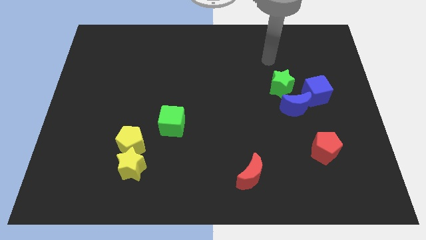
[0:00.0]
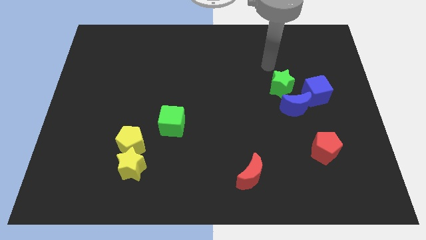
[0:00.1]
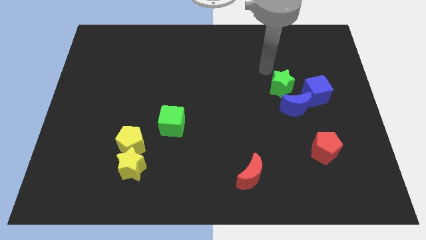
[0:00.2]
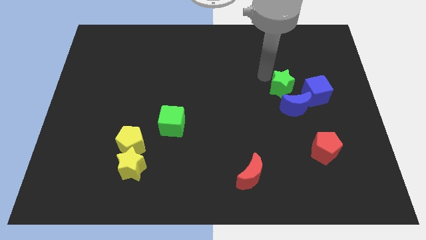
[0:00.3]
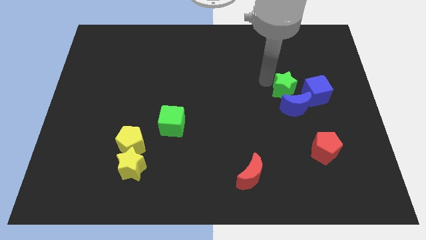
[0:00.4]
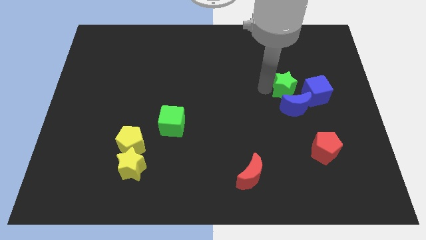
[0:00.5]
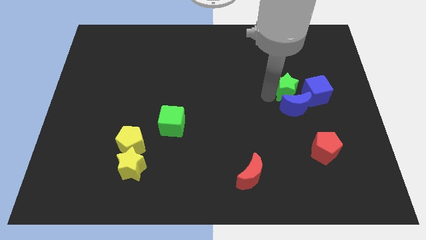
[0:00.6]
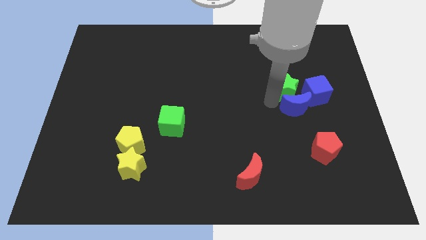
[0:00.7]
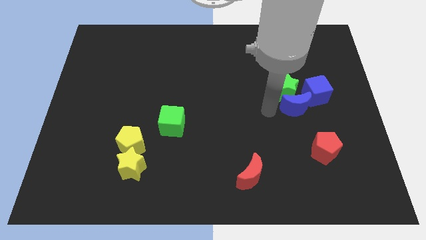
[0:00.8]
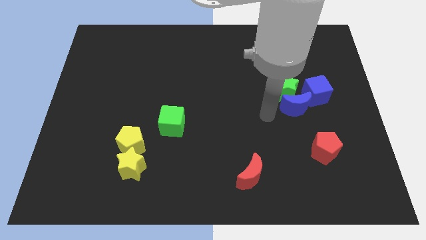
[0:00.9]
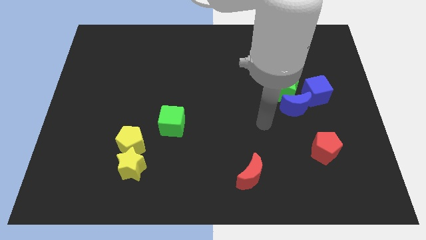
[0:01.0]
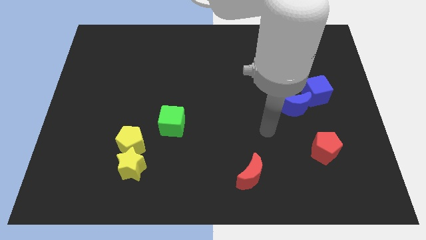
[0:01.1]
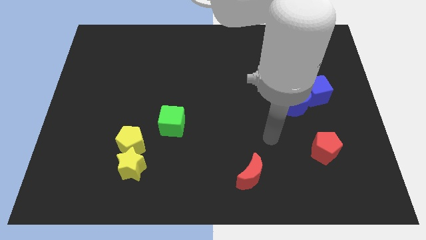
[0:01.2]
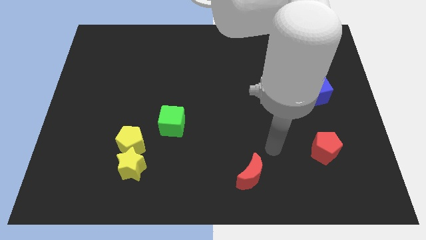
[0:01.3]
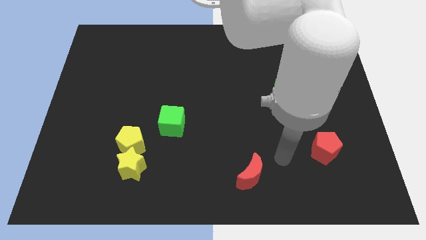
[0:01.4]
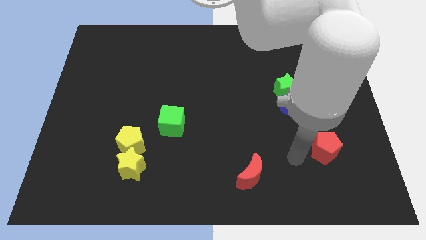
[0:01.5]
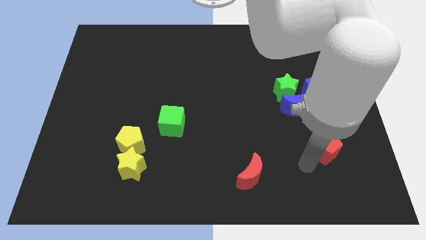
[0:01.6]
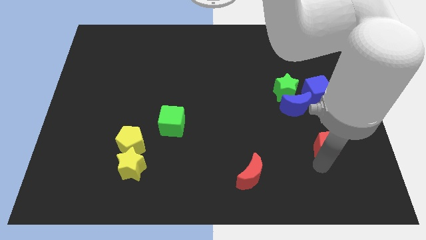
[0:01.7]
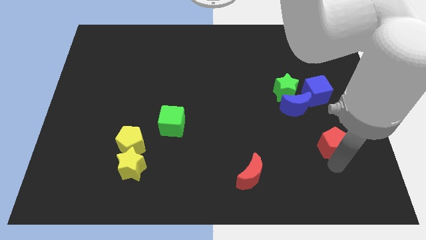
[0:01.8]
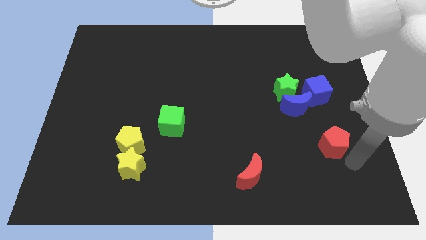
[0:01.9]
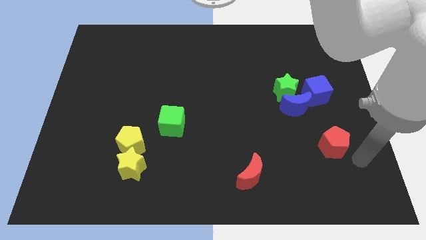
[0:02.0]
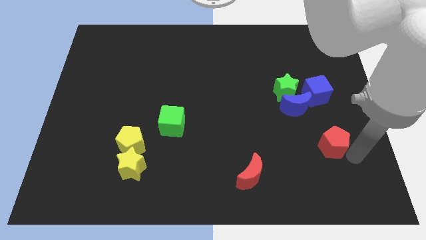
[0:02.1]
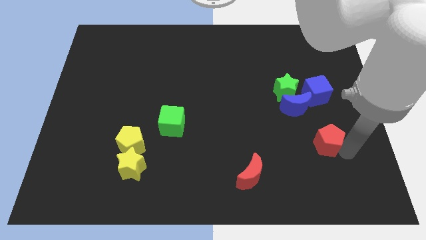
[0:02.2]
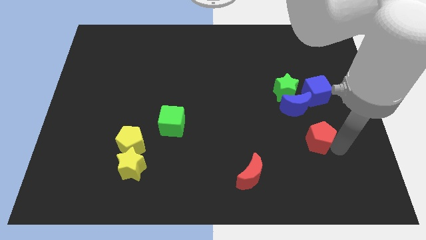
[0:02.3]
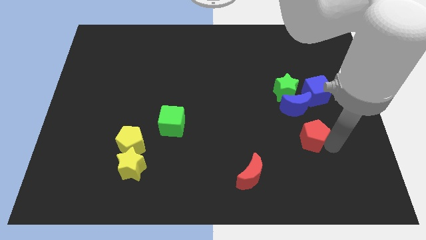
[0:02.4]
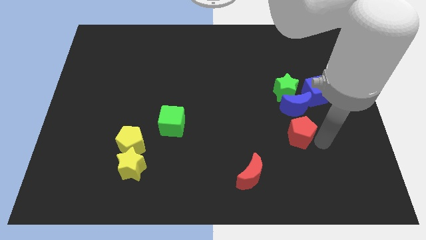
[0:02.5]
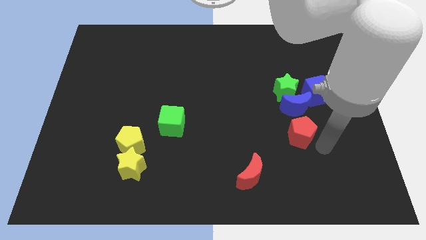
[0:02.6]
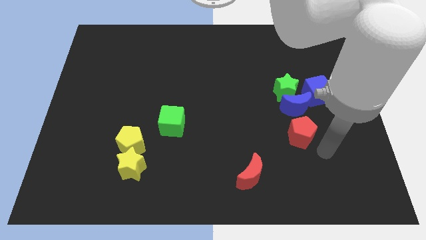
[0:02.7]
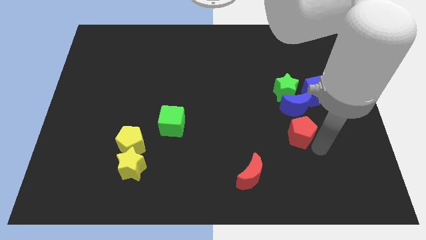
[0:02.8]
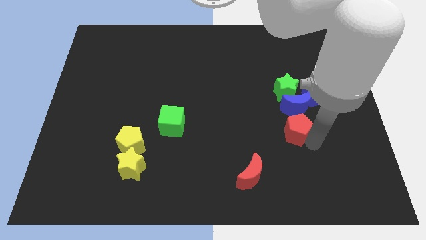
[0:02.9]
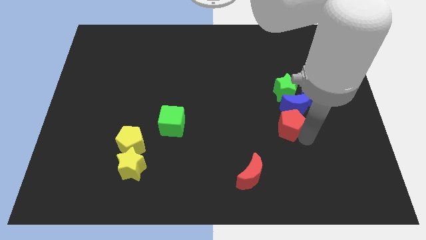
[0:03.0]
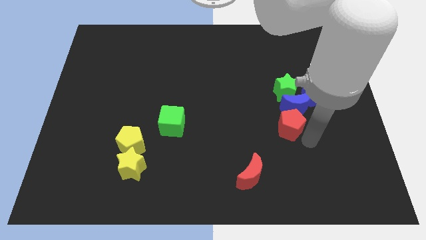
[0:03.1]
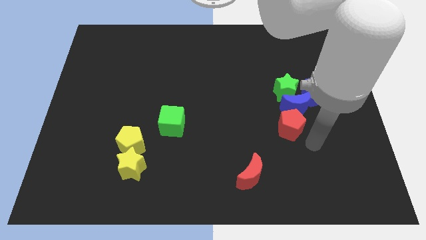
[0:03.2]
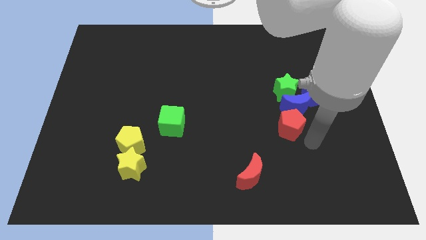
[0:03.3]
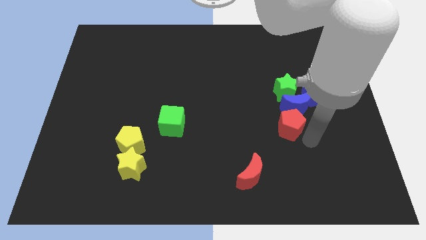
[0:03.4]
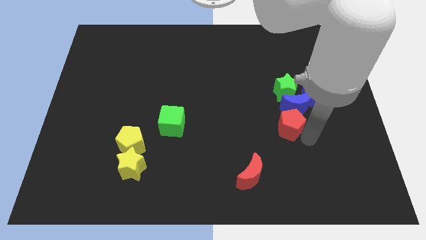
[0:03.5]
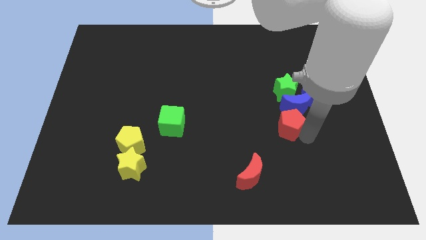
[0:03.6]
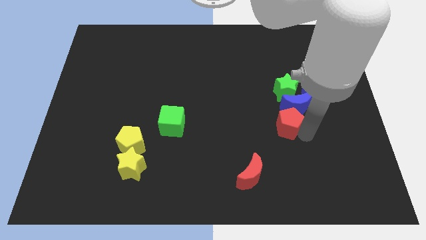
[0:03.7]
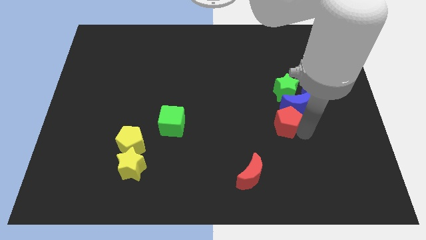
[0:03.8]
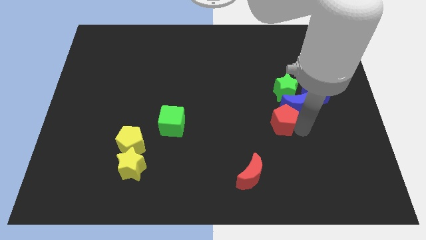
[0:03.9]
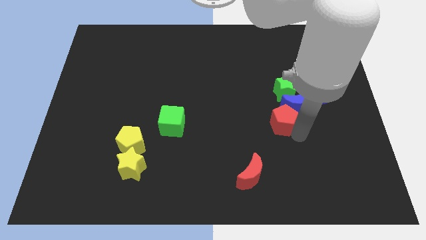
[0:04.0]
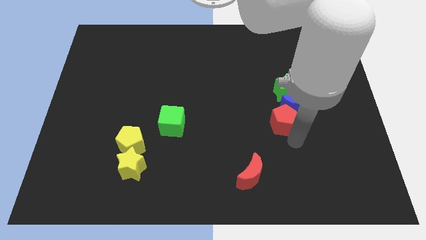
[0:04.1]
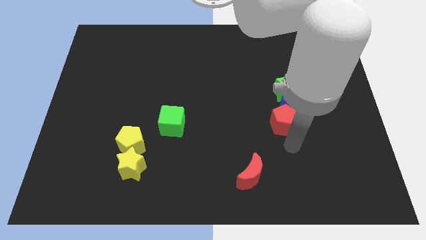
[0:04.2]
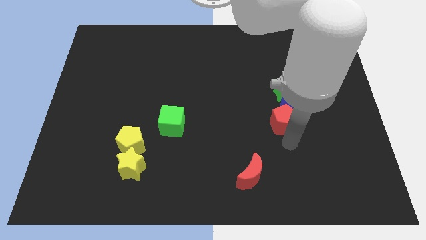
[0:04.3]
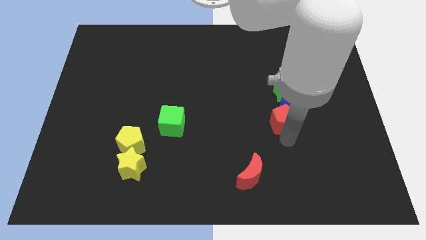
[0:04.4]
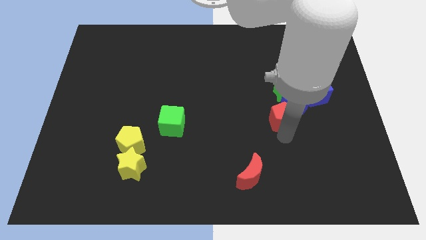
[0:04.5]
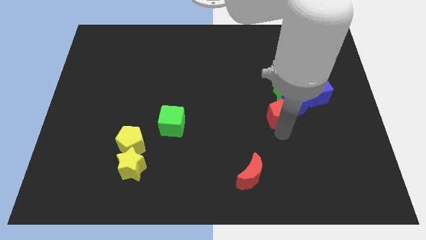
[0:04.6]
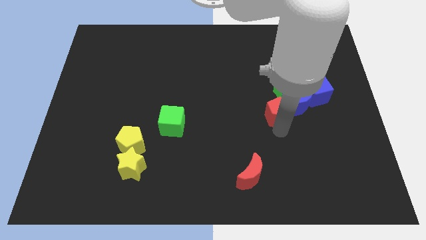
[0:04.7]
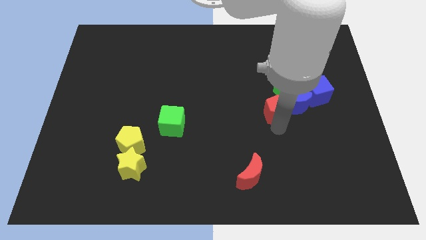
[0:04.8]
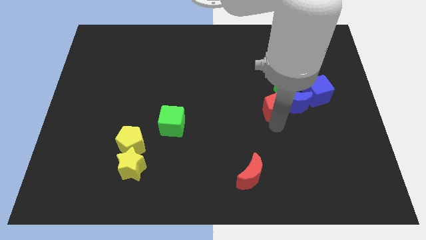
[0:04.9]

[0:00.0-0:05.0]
put the red pentagon to the left of the blue cube

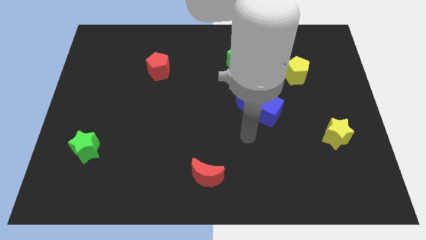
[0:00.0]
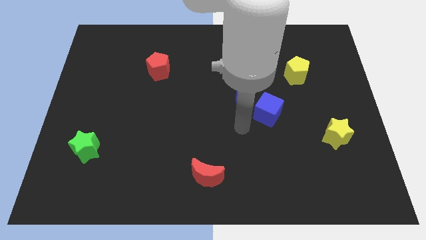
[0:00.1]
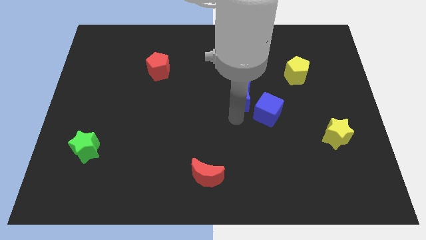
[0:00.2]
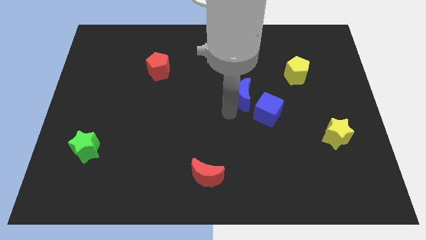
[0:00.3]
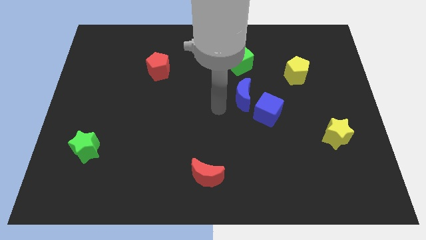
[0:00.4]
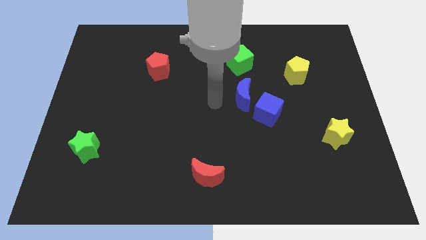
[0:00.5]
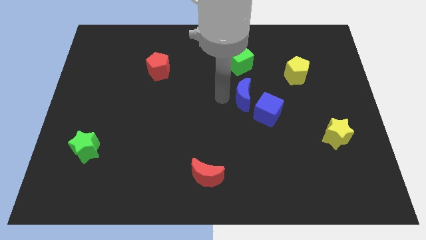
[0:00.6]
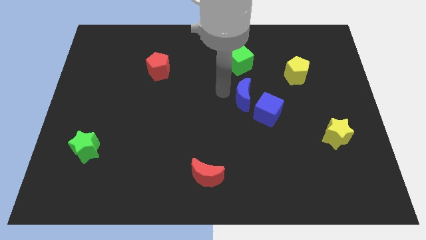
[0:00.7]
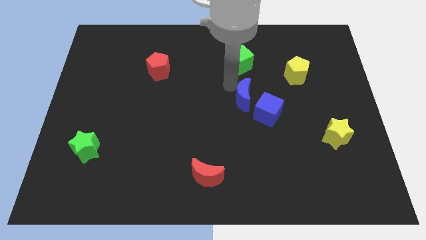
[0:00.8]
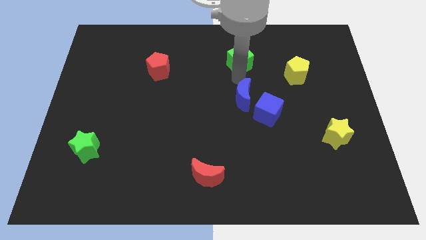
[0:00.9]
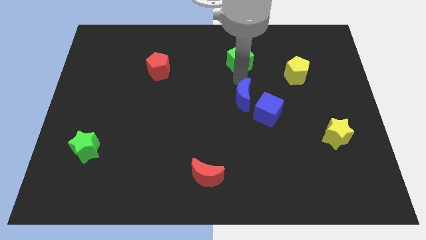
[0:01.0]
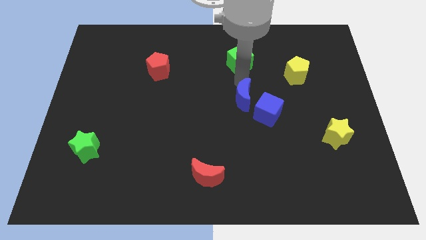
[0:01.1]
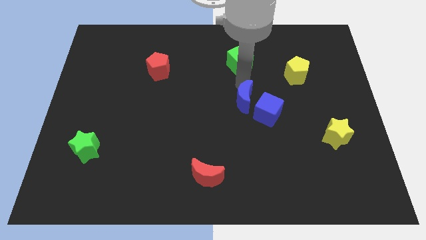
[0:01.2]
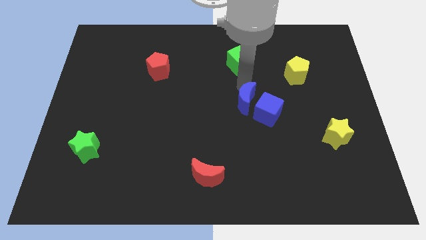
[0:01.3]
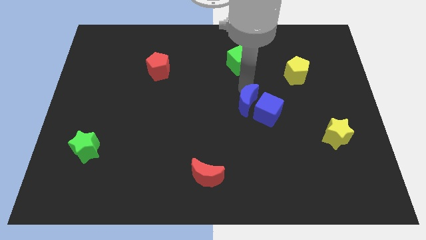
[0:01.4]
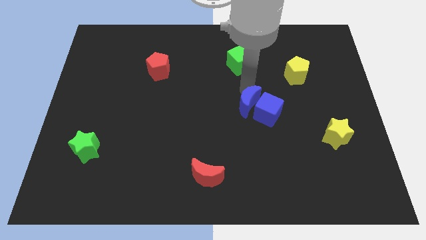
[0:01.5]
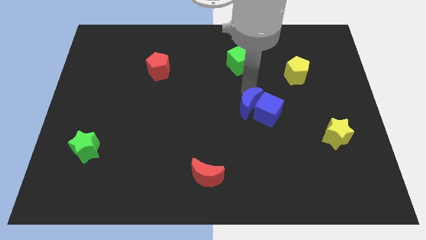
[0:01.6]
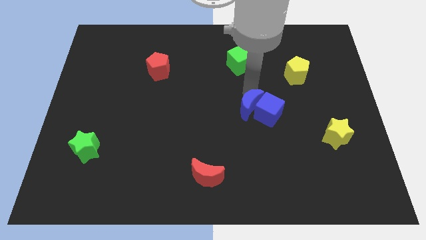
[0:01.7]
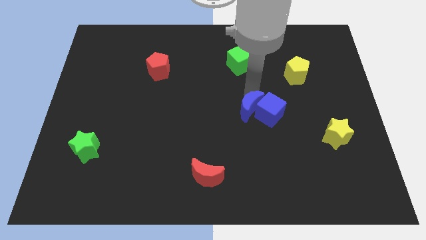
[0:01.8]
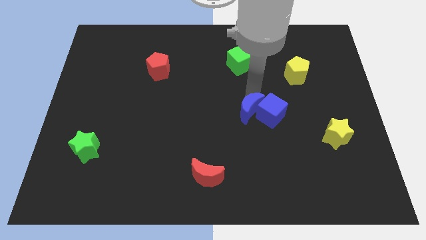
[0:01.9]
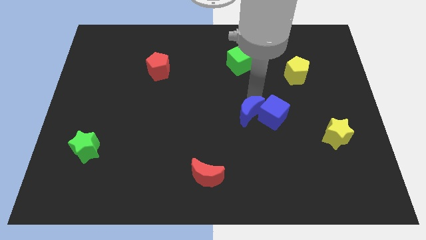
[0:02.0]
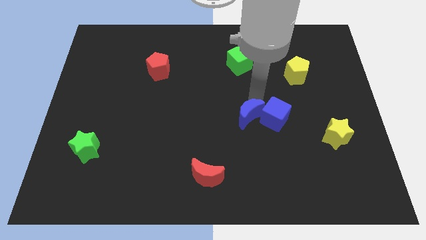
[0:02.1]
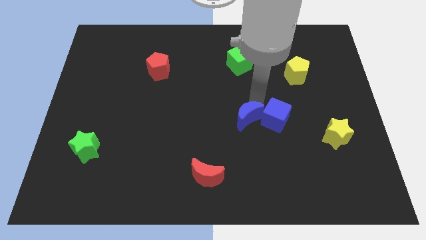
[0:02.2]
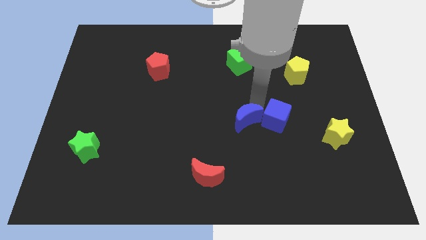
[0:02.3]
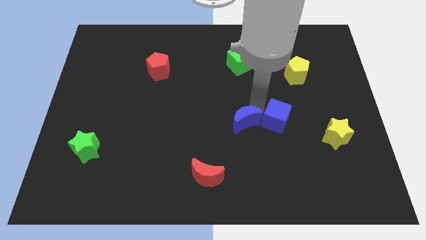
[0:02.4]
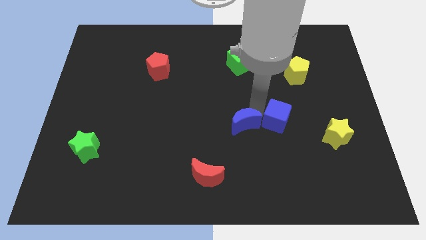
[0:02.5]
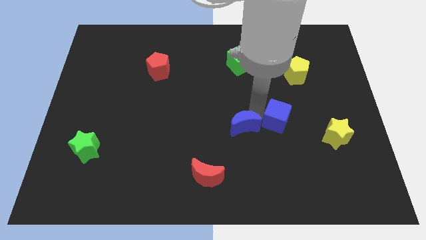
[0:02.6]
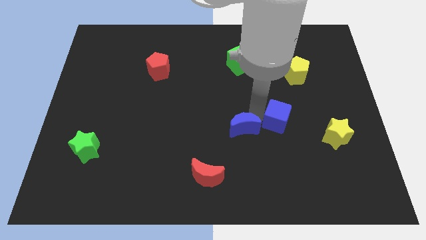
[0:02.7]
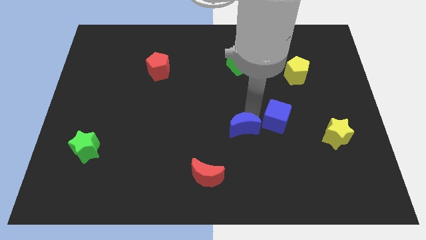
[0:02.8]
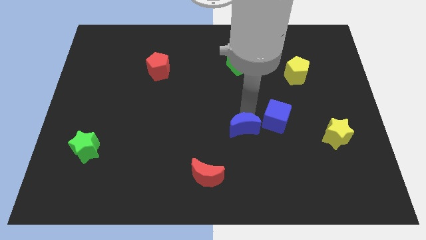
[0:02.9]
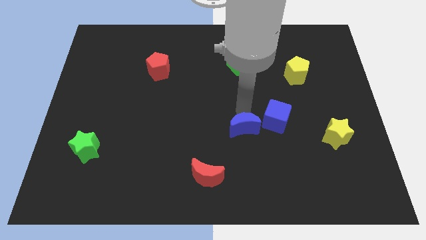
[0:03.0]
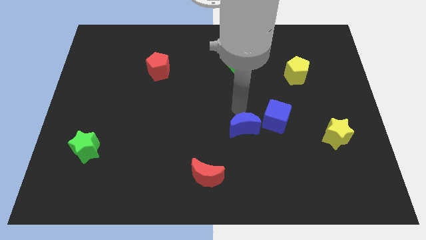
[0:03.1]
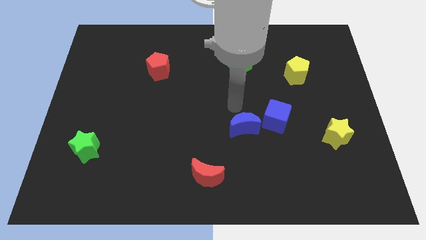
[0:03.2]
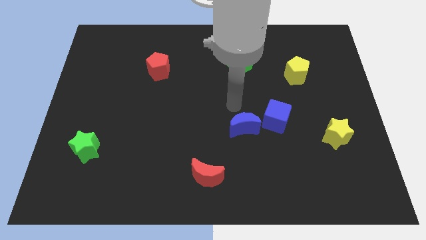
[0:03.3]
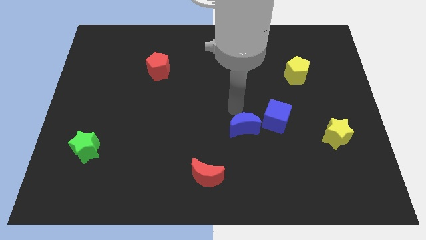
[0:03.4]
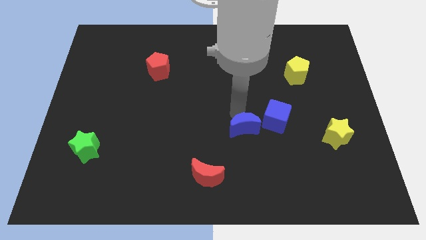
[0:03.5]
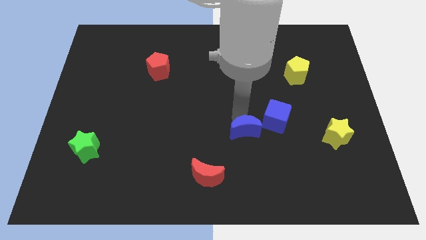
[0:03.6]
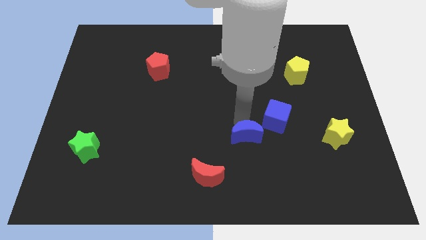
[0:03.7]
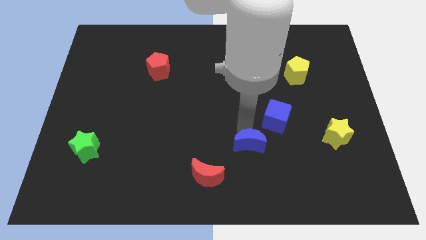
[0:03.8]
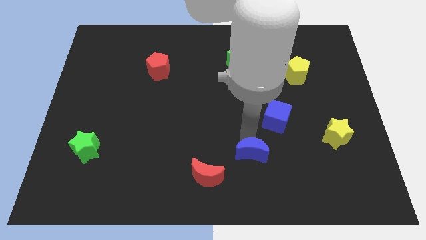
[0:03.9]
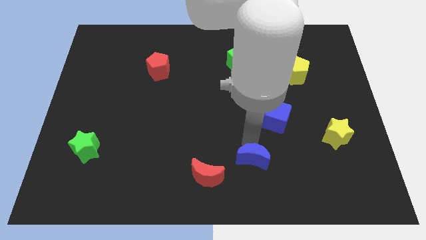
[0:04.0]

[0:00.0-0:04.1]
slide the blue moon just right of the red moon
